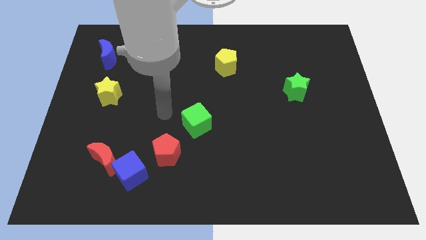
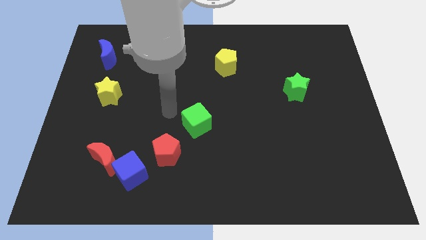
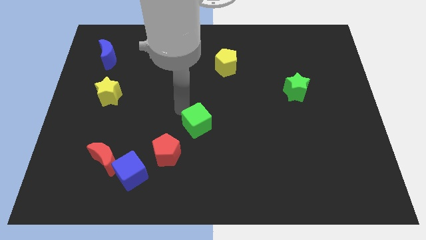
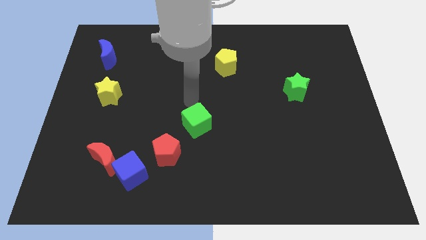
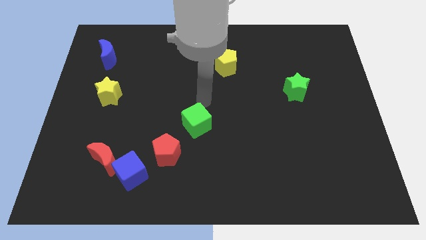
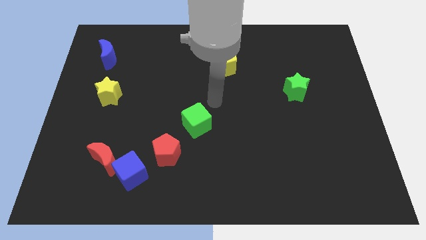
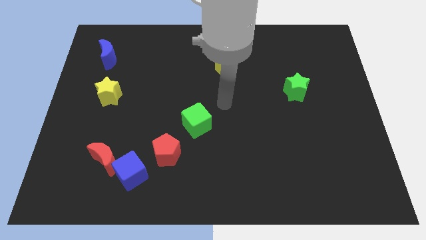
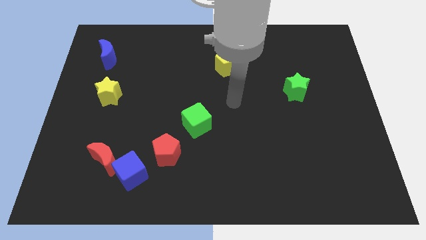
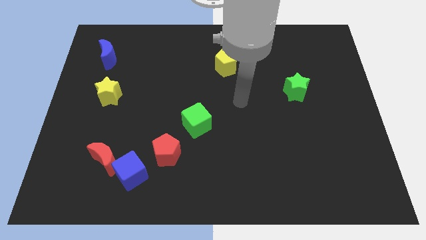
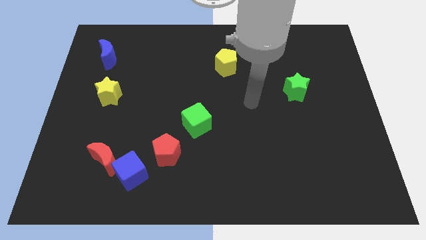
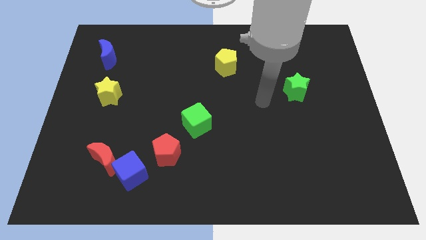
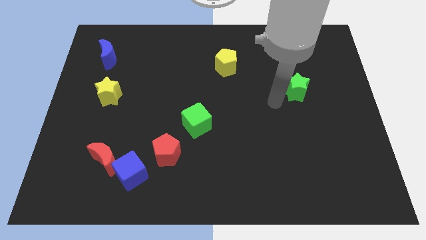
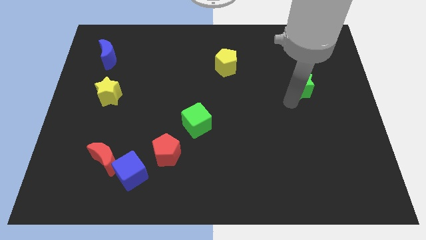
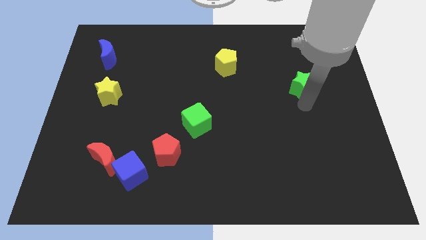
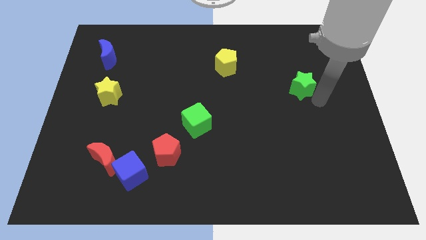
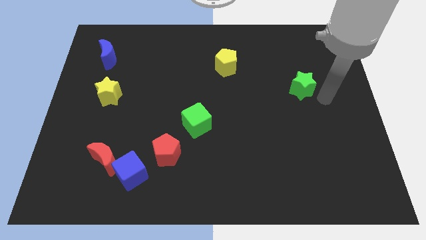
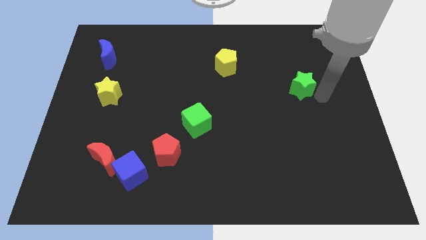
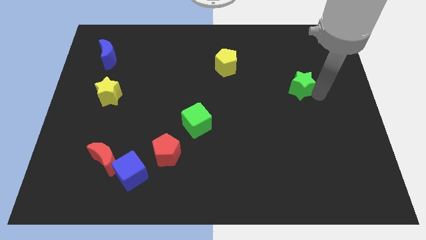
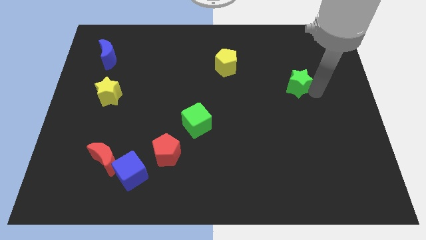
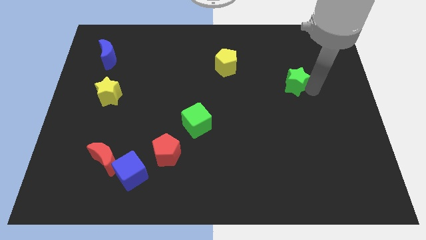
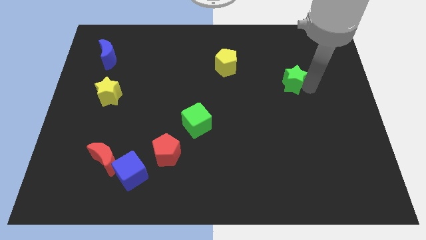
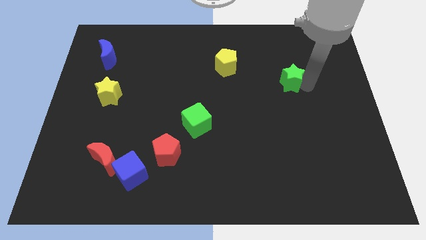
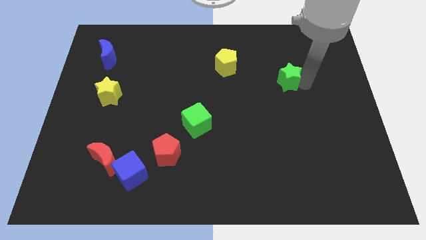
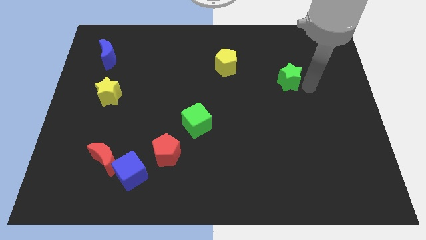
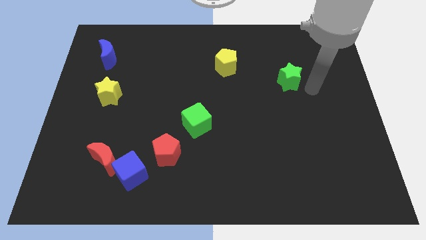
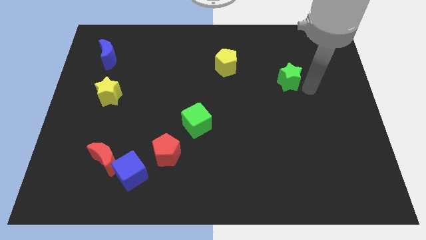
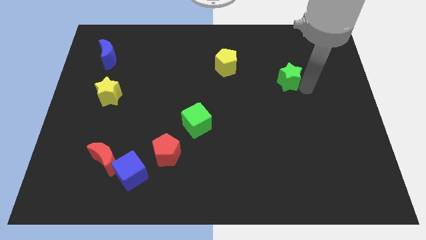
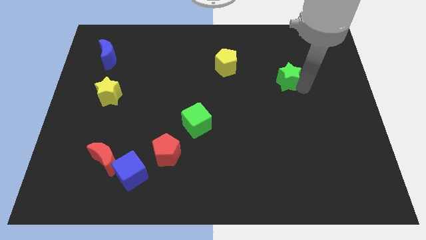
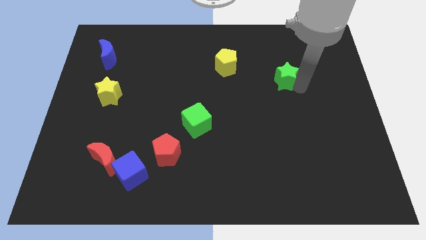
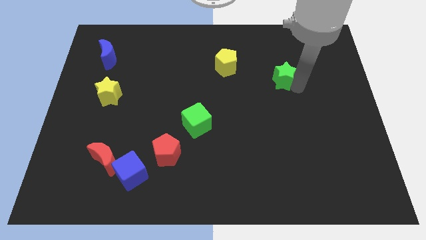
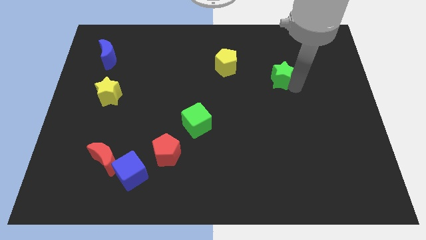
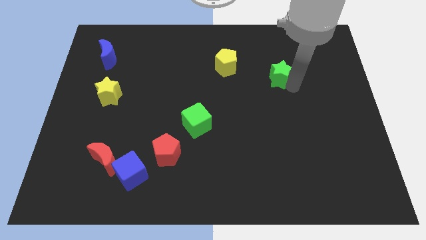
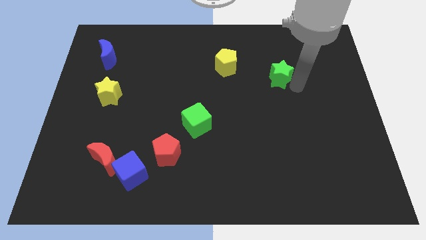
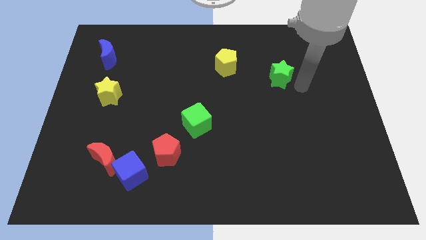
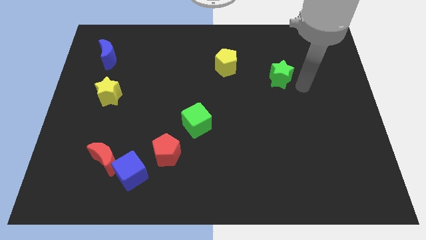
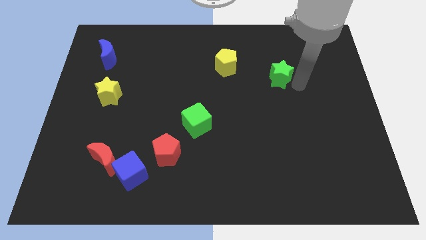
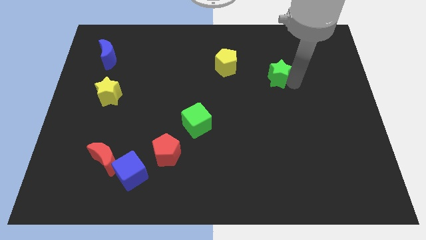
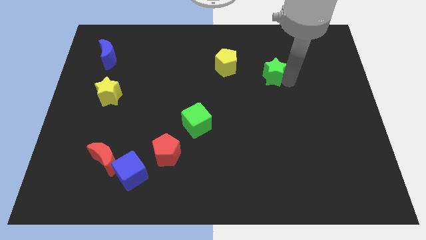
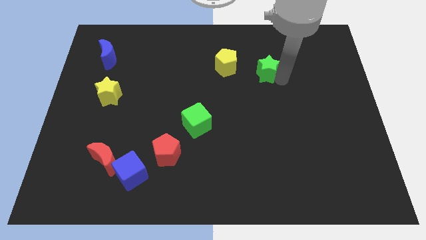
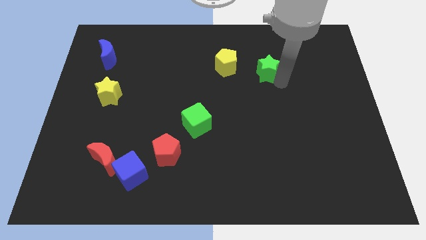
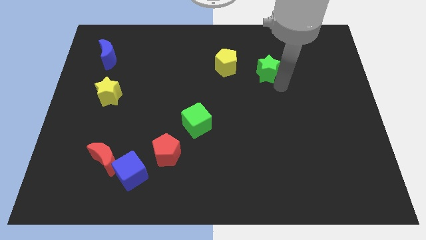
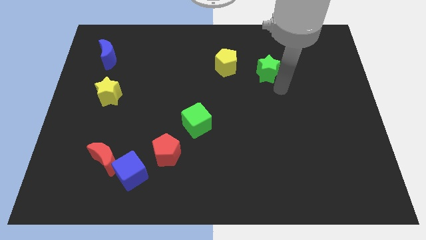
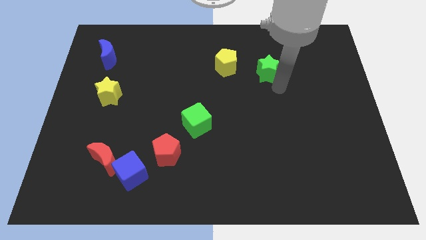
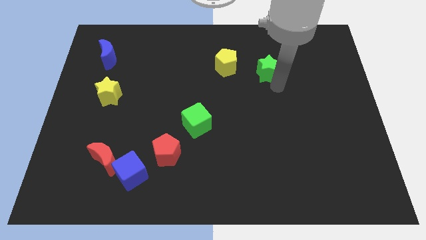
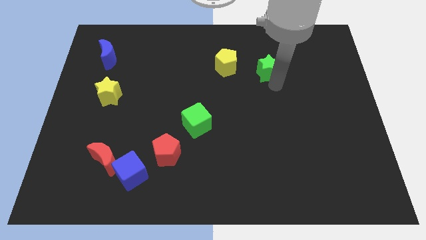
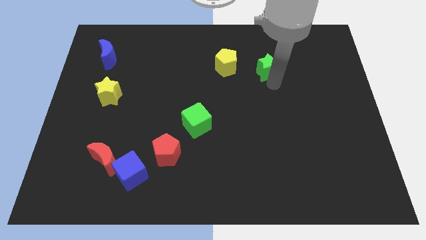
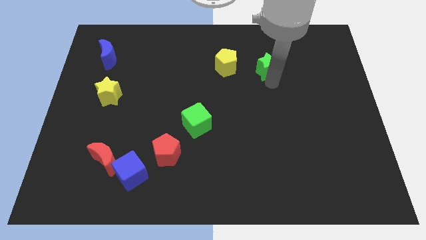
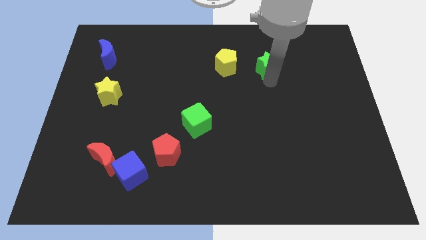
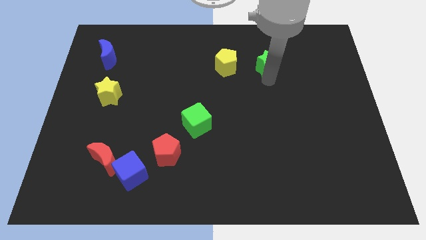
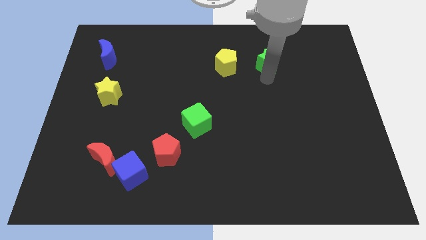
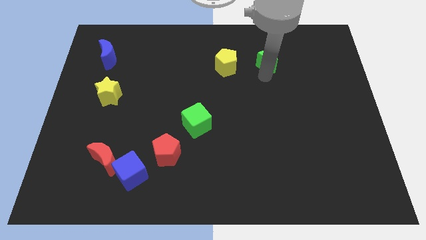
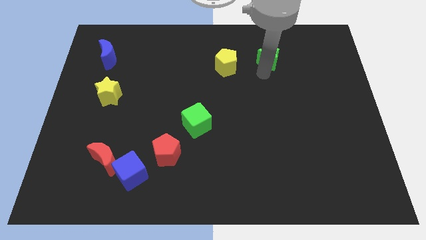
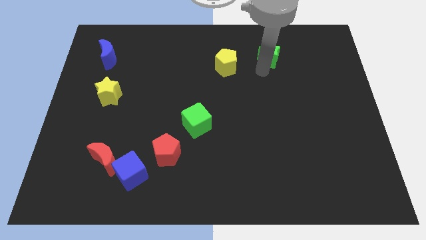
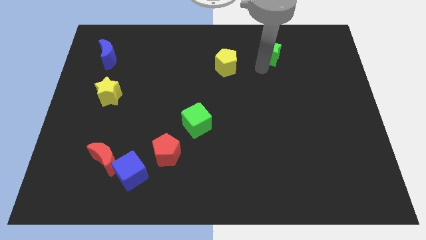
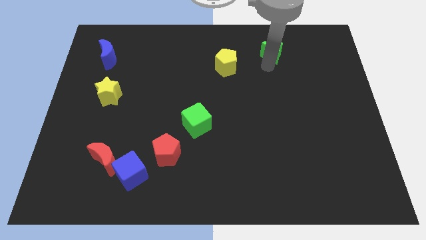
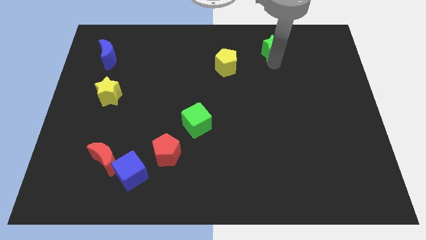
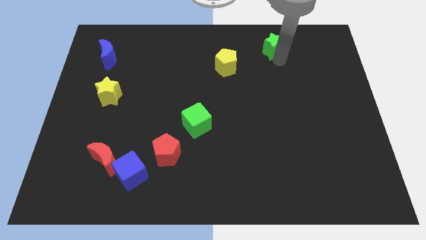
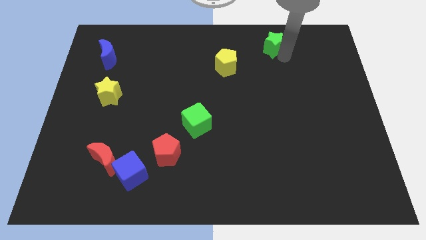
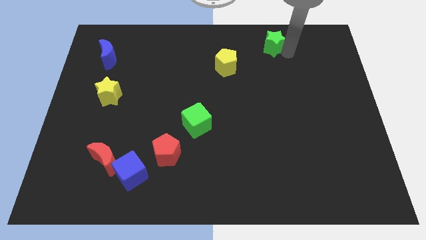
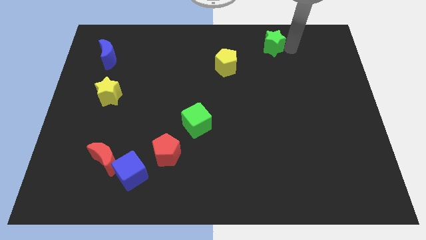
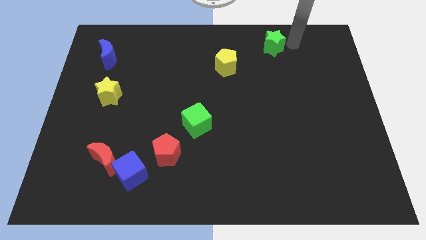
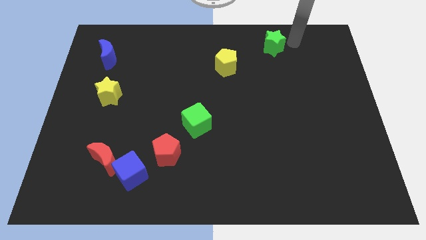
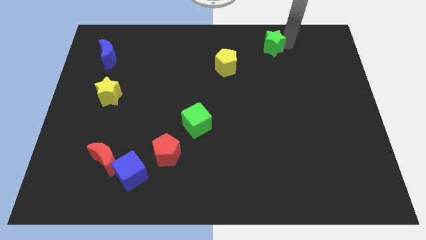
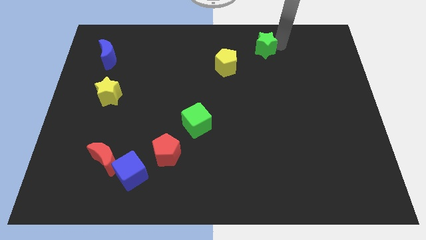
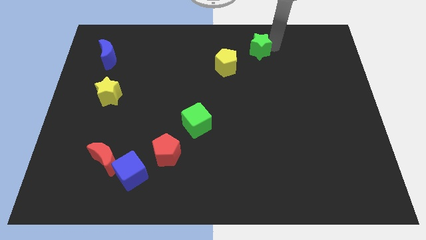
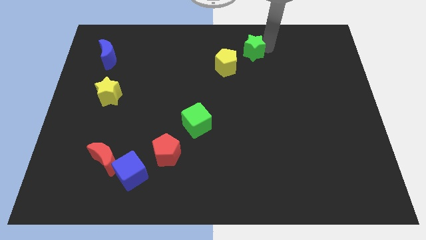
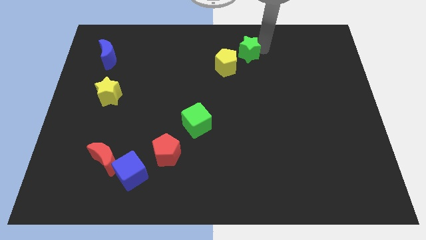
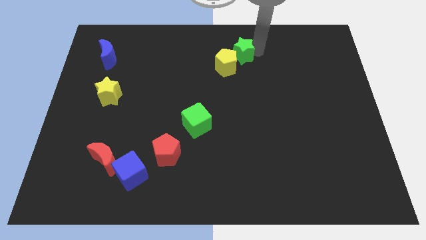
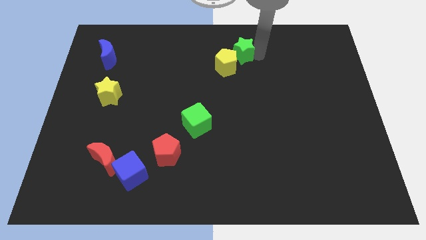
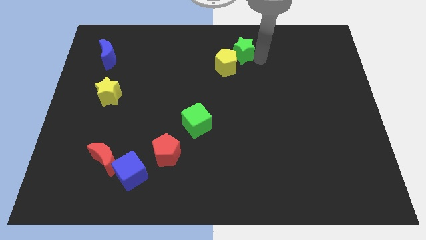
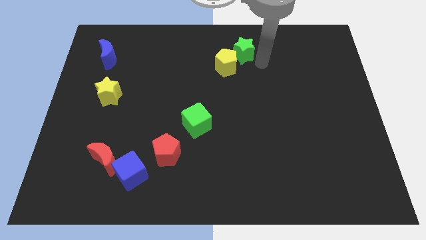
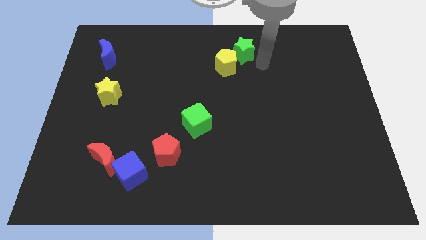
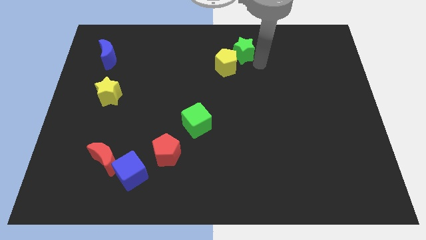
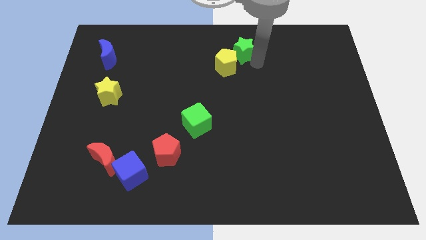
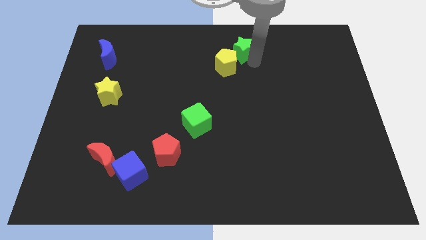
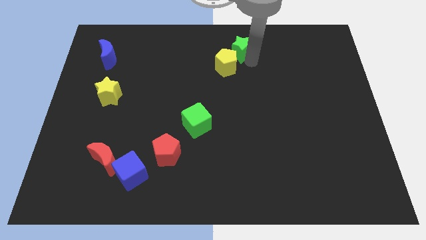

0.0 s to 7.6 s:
slide the green star to the top side
